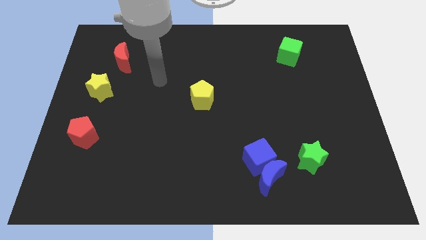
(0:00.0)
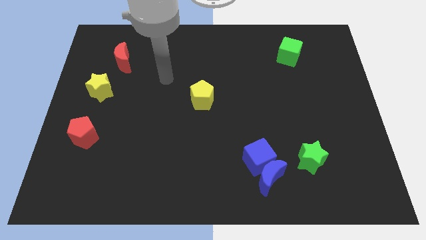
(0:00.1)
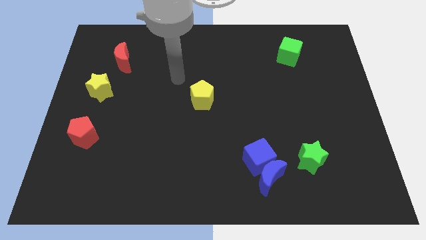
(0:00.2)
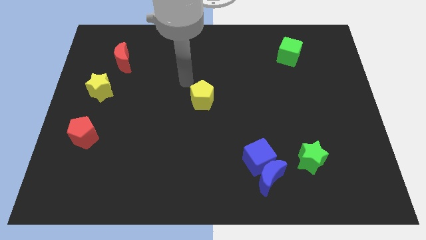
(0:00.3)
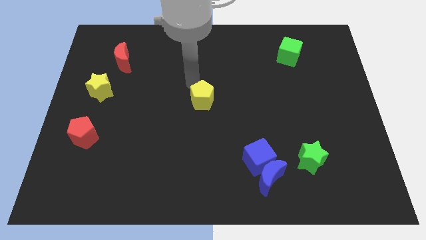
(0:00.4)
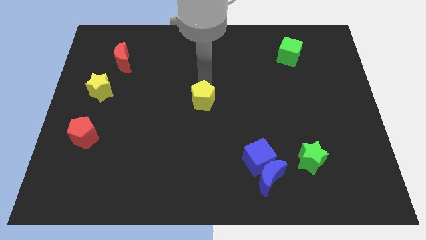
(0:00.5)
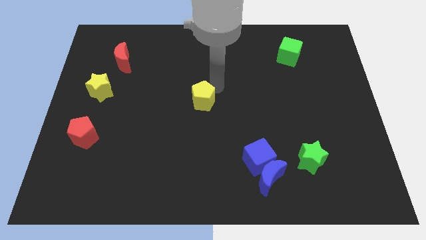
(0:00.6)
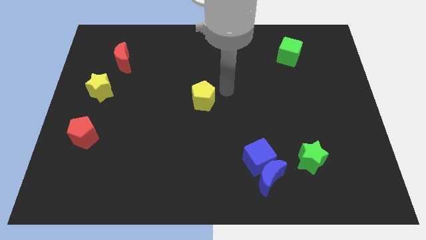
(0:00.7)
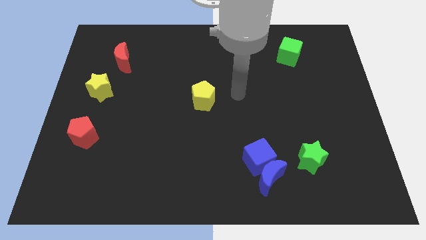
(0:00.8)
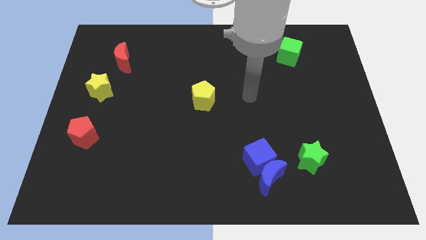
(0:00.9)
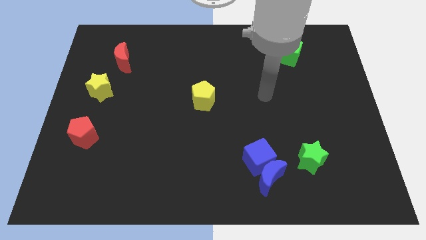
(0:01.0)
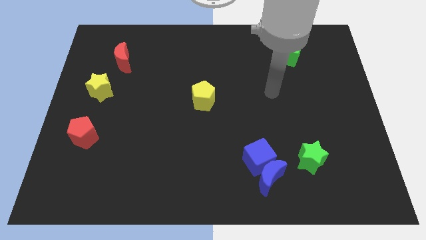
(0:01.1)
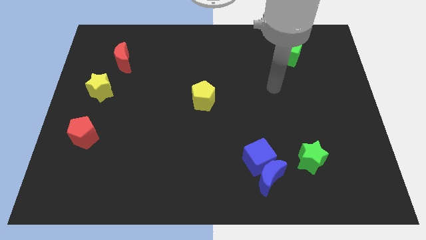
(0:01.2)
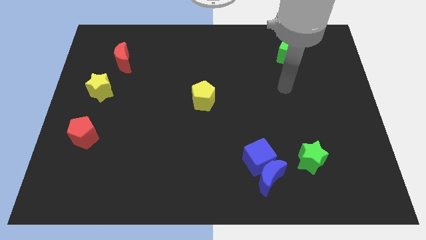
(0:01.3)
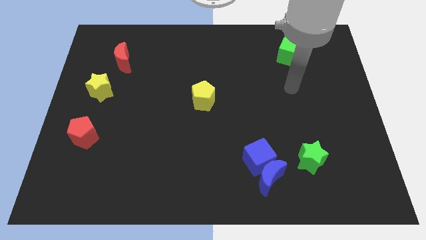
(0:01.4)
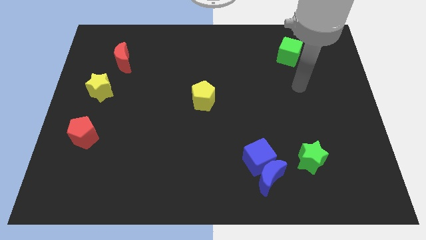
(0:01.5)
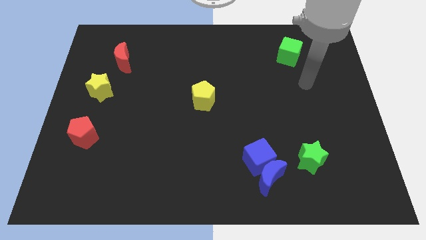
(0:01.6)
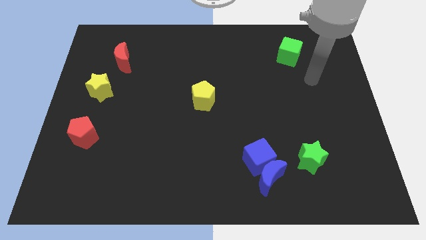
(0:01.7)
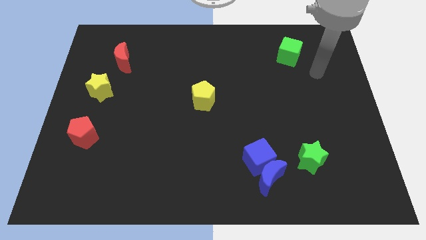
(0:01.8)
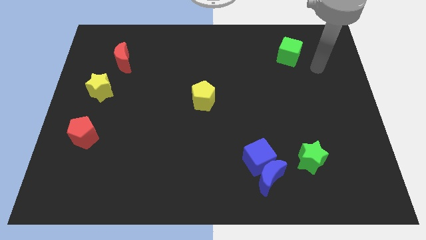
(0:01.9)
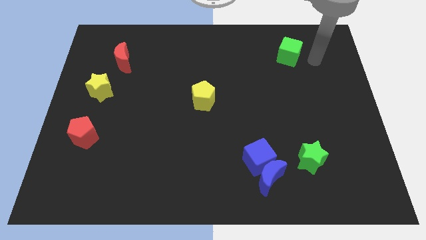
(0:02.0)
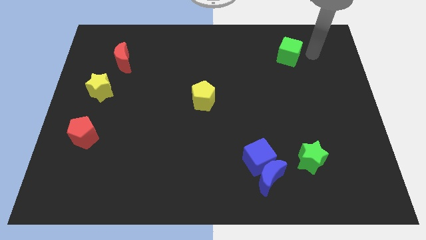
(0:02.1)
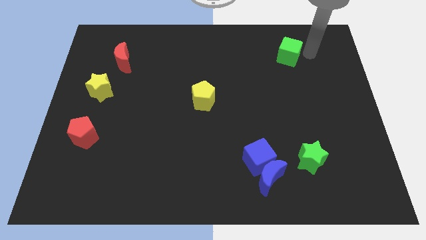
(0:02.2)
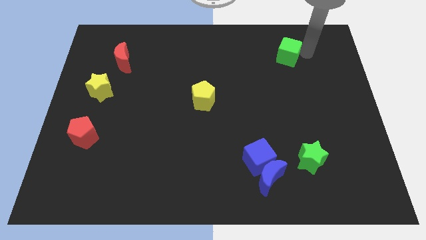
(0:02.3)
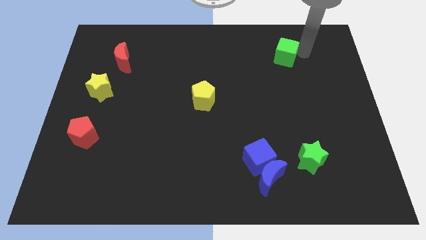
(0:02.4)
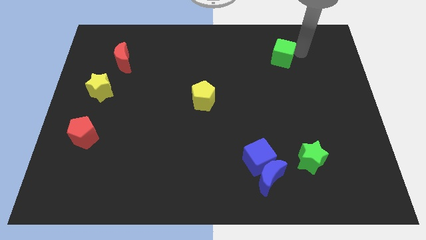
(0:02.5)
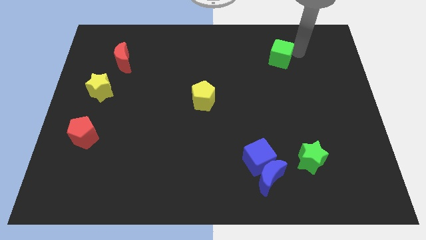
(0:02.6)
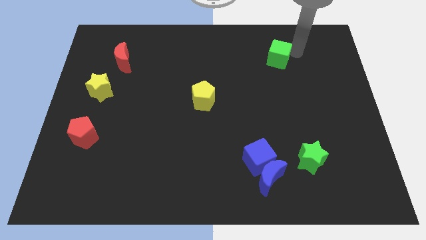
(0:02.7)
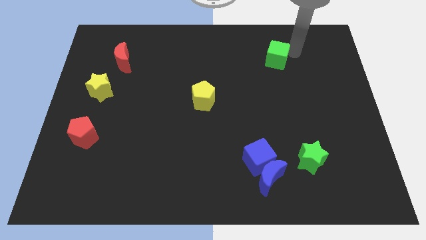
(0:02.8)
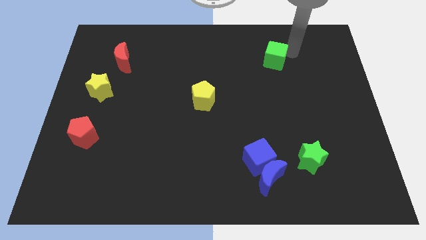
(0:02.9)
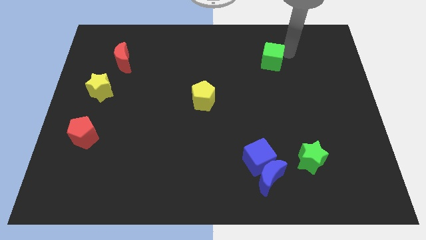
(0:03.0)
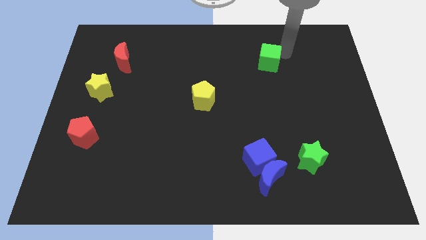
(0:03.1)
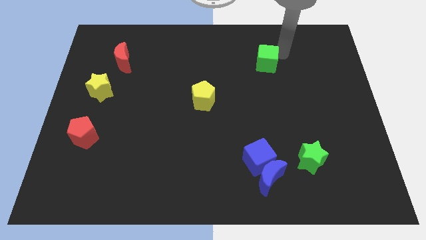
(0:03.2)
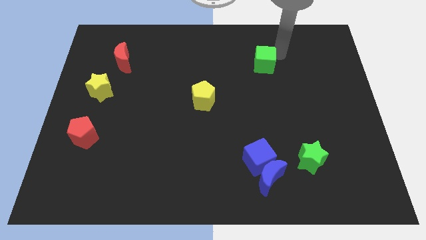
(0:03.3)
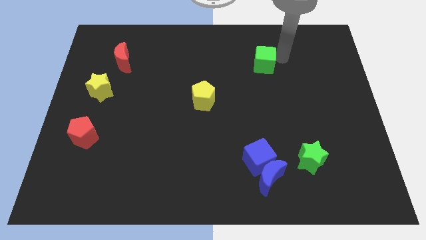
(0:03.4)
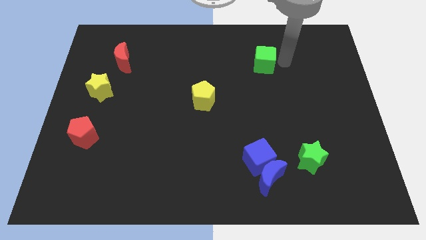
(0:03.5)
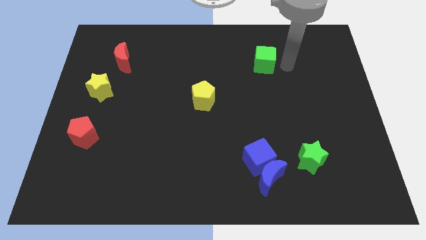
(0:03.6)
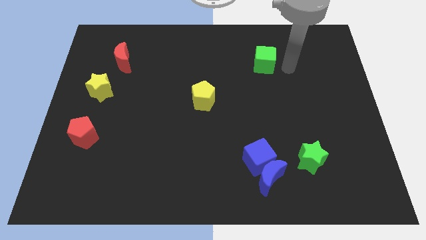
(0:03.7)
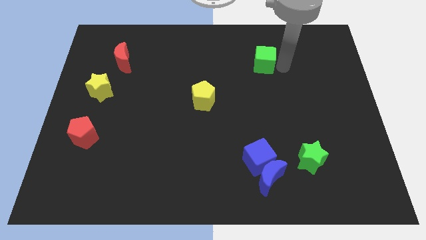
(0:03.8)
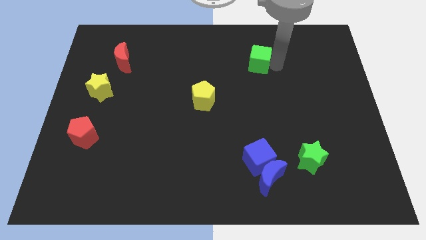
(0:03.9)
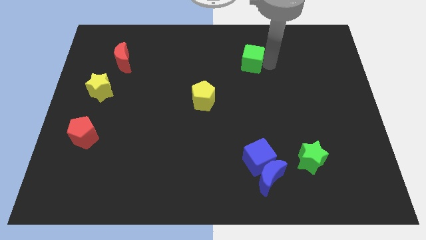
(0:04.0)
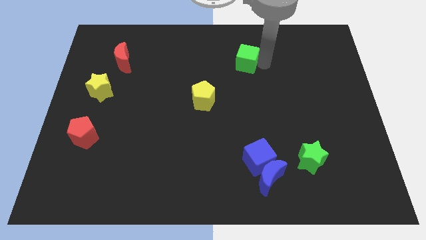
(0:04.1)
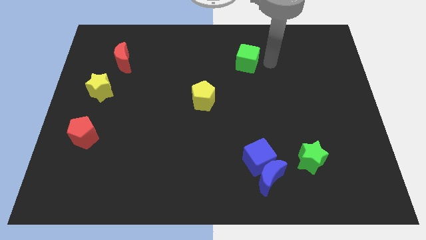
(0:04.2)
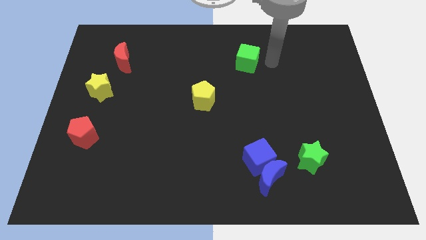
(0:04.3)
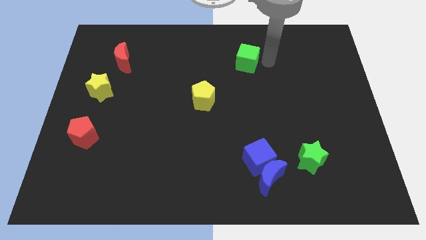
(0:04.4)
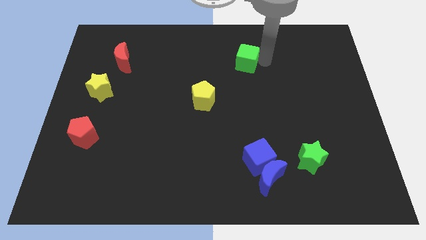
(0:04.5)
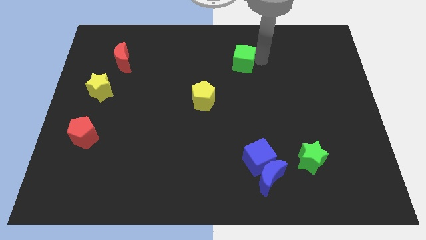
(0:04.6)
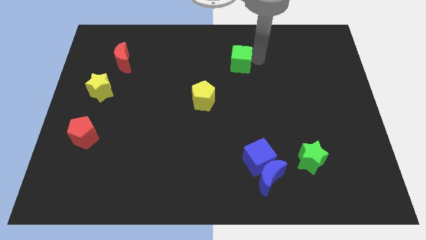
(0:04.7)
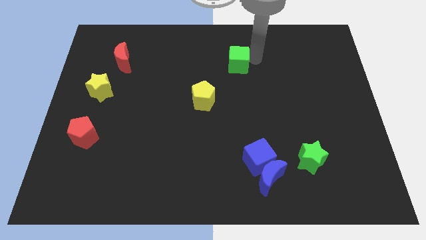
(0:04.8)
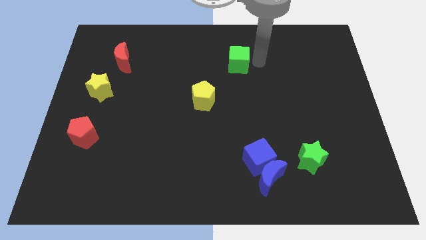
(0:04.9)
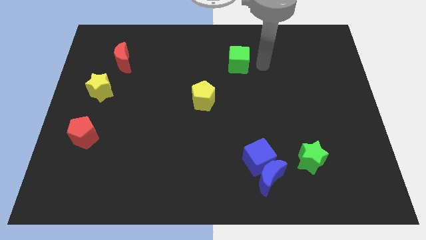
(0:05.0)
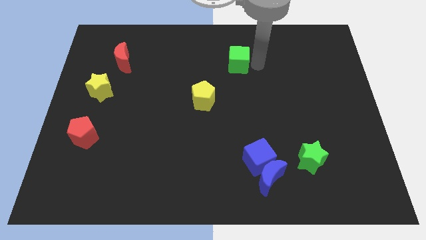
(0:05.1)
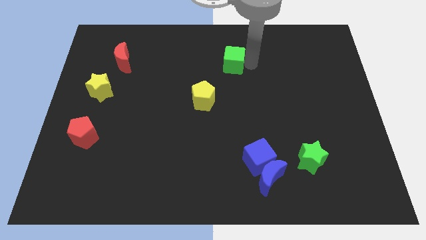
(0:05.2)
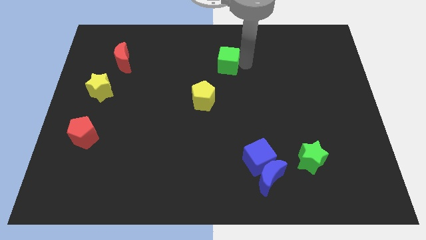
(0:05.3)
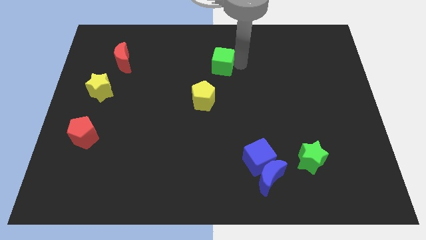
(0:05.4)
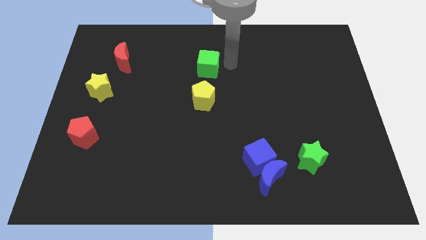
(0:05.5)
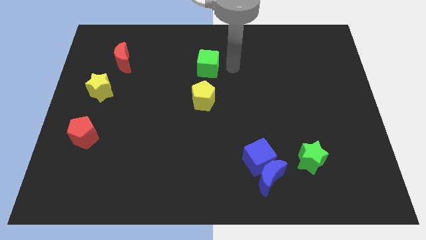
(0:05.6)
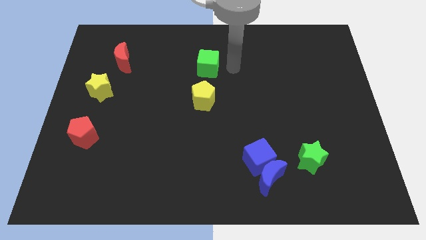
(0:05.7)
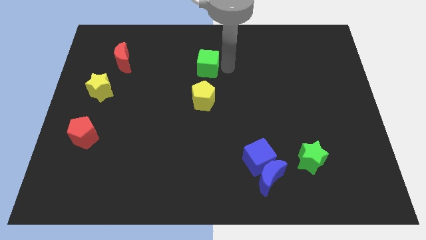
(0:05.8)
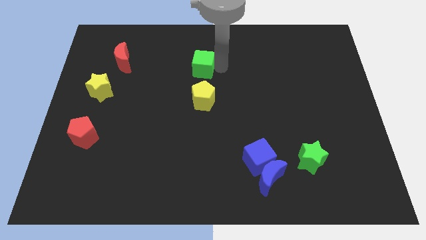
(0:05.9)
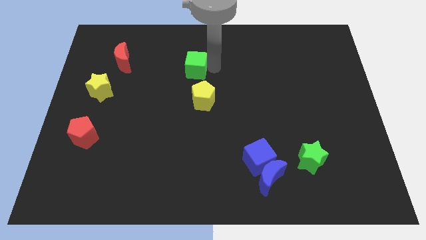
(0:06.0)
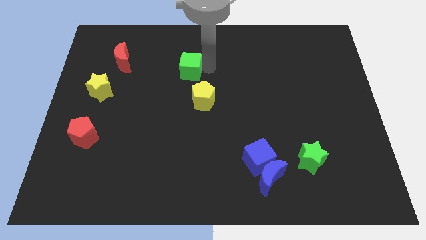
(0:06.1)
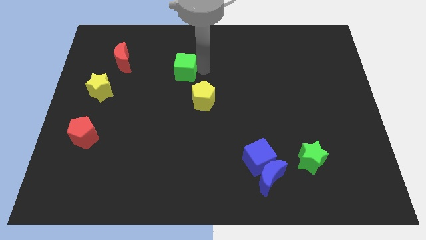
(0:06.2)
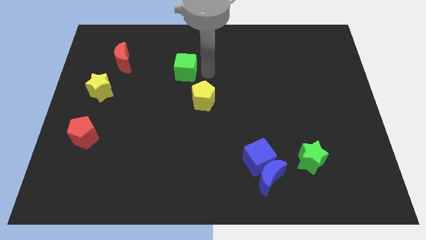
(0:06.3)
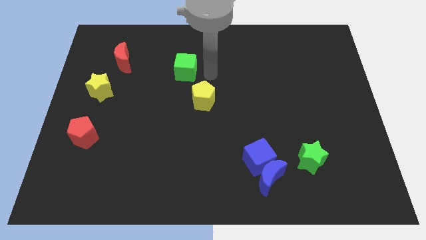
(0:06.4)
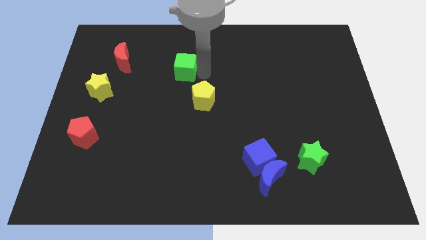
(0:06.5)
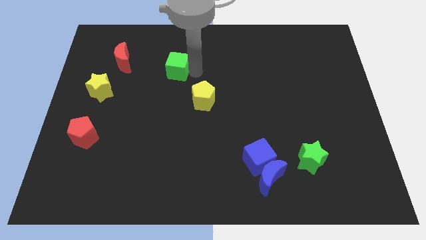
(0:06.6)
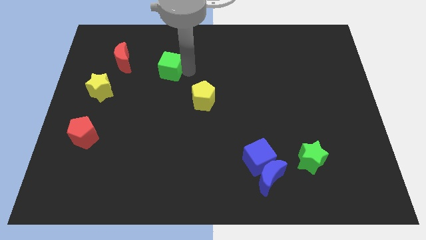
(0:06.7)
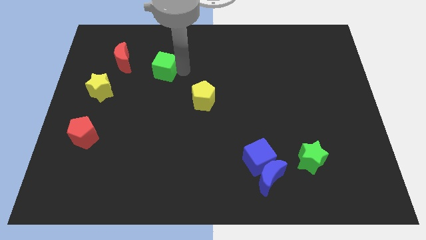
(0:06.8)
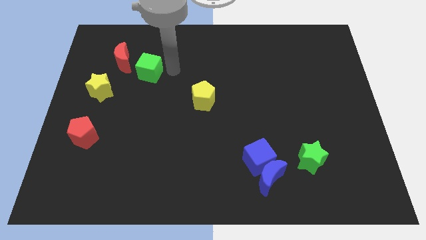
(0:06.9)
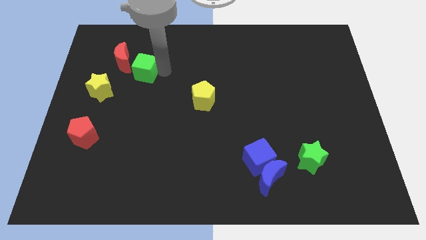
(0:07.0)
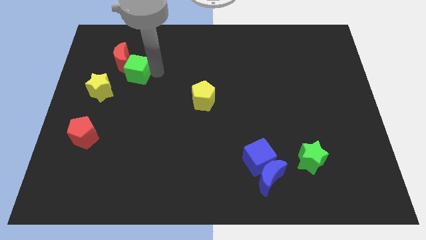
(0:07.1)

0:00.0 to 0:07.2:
push the green cube close to the red moon
